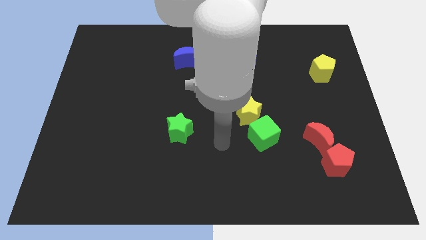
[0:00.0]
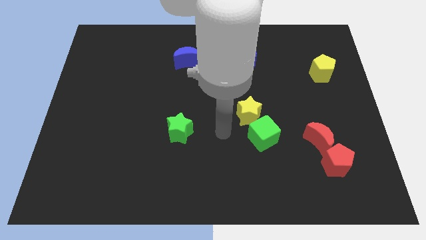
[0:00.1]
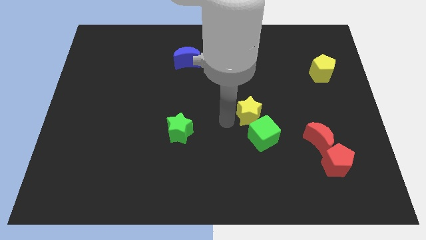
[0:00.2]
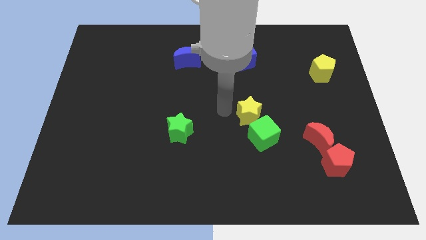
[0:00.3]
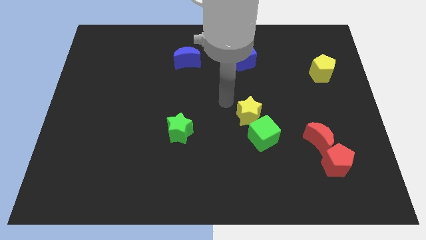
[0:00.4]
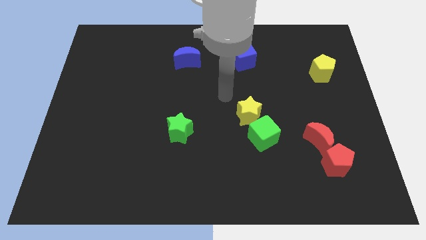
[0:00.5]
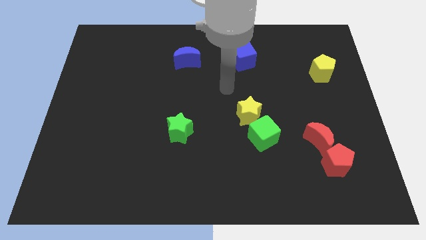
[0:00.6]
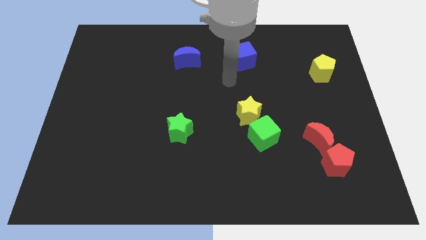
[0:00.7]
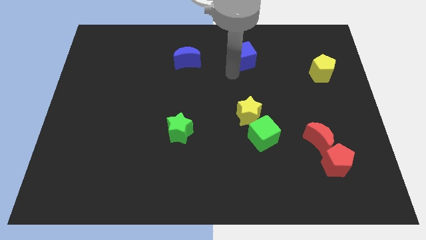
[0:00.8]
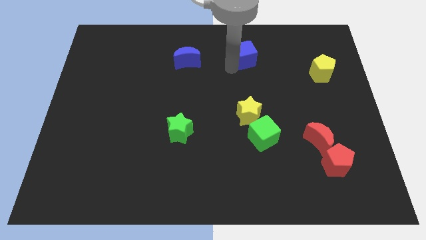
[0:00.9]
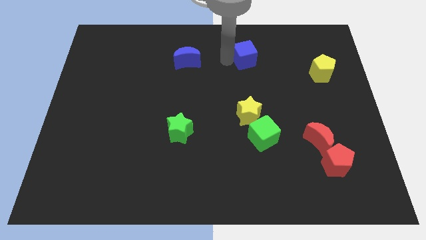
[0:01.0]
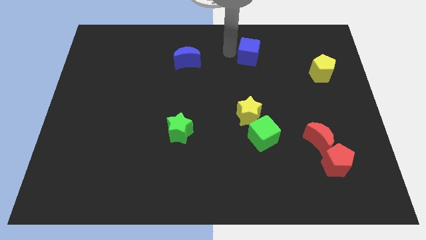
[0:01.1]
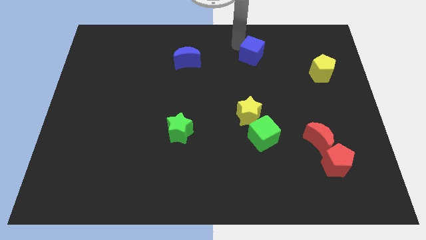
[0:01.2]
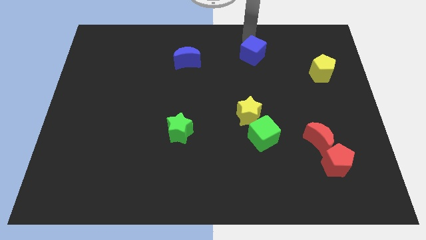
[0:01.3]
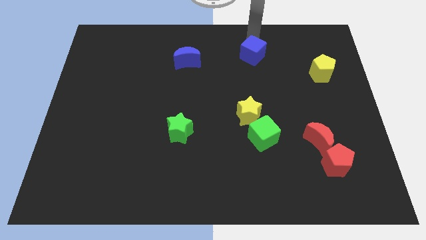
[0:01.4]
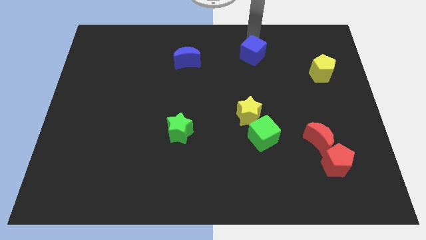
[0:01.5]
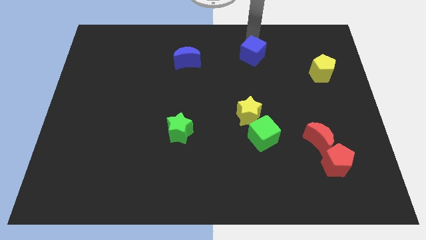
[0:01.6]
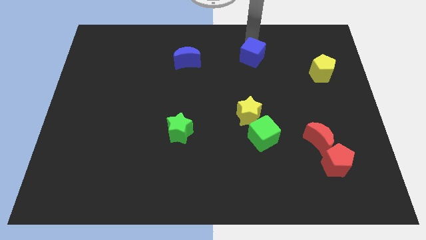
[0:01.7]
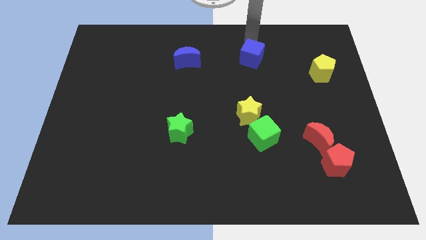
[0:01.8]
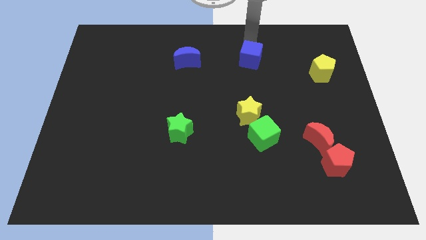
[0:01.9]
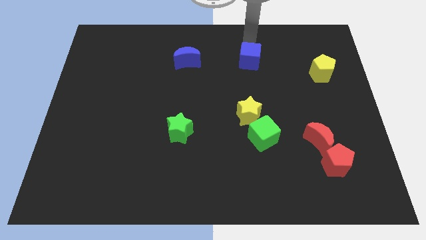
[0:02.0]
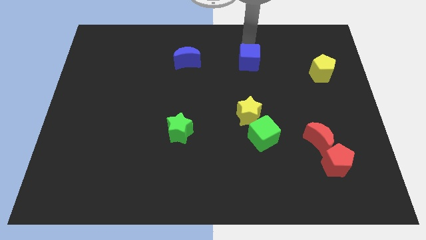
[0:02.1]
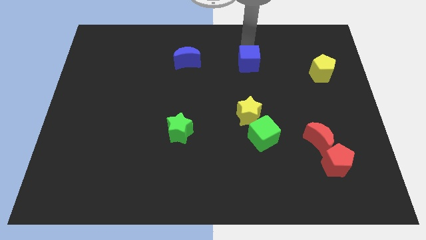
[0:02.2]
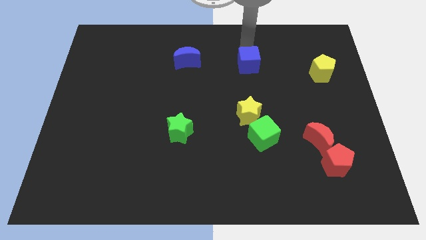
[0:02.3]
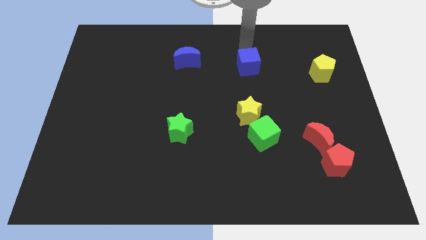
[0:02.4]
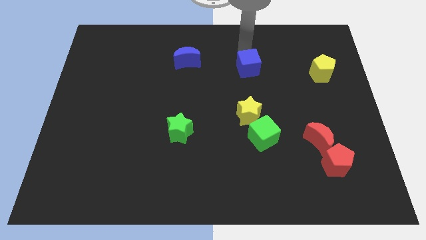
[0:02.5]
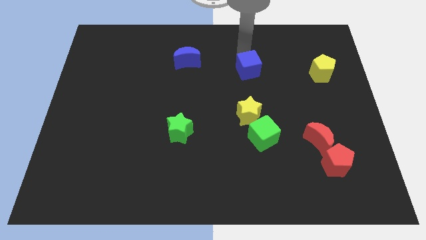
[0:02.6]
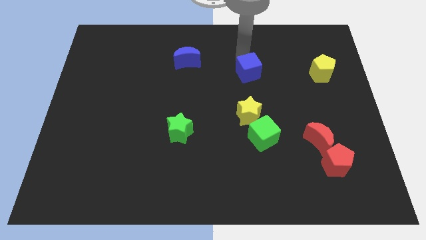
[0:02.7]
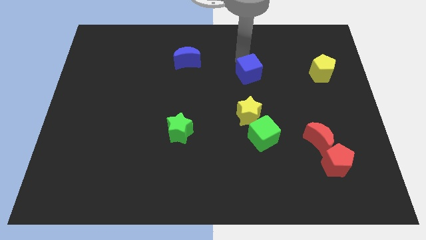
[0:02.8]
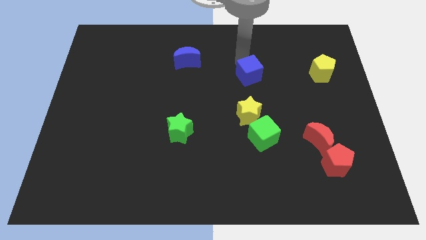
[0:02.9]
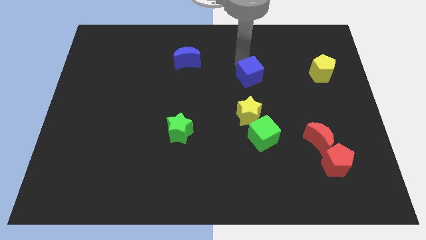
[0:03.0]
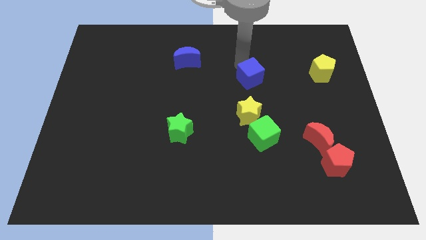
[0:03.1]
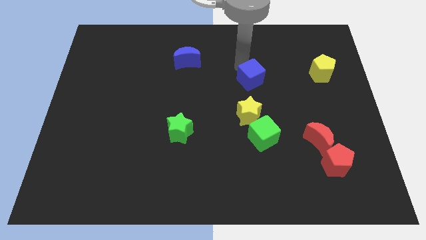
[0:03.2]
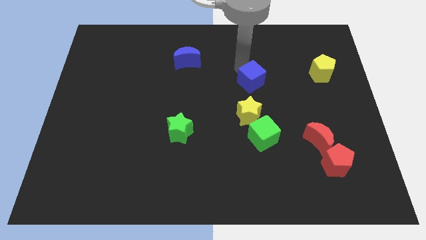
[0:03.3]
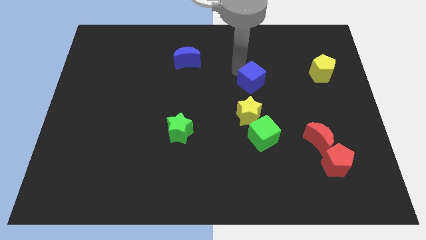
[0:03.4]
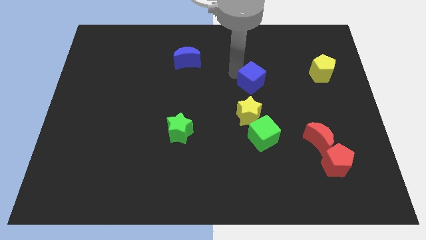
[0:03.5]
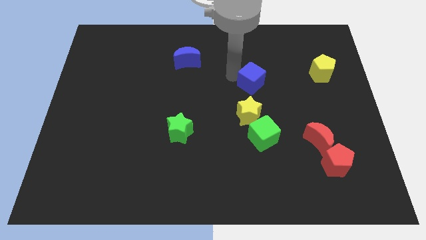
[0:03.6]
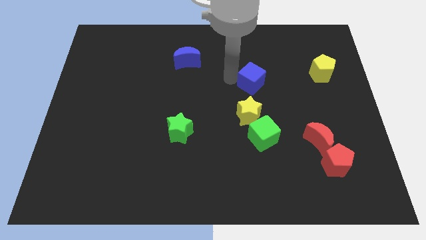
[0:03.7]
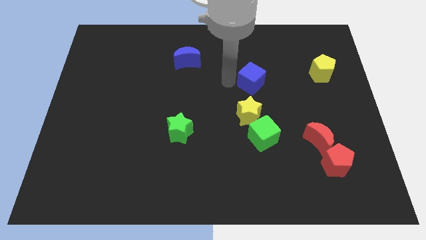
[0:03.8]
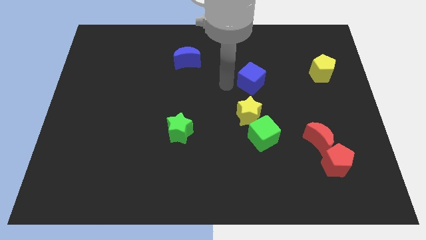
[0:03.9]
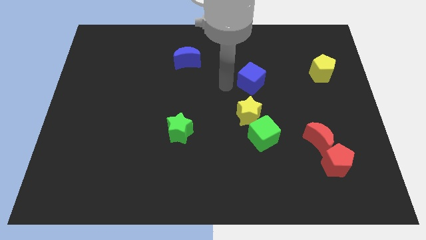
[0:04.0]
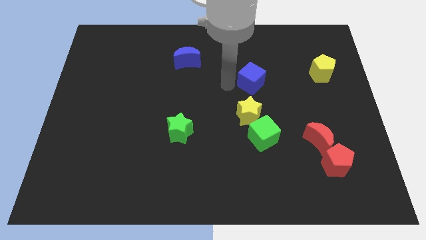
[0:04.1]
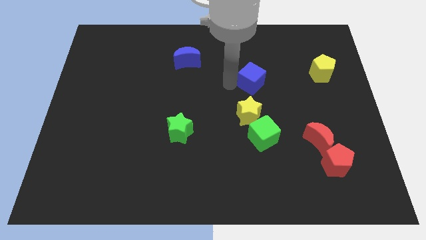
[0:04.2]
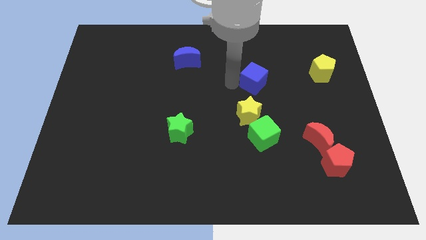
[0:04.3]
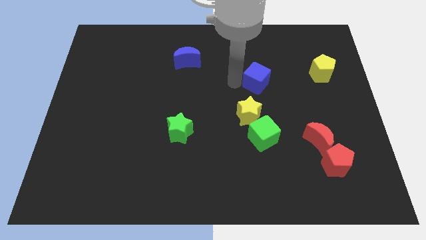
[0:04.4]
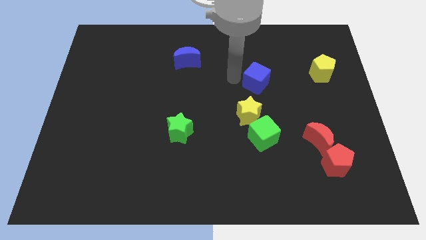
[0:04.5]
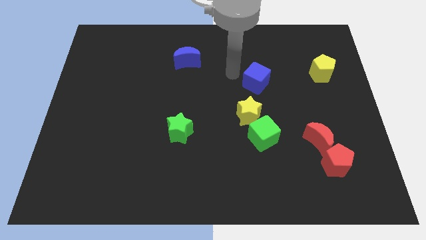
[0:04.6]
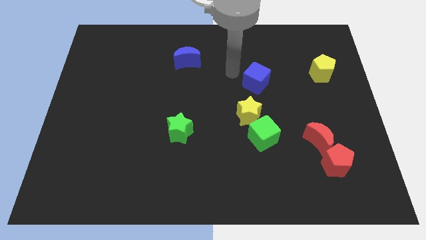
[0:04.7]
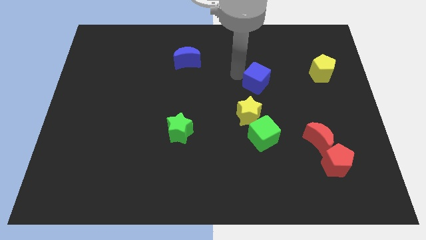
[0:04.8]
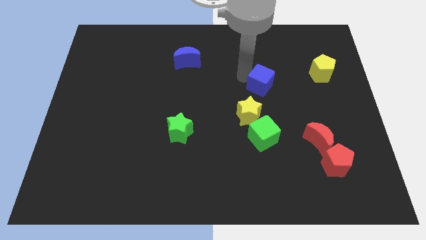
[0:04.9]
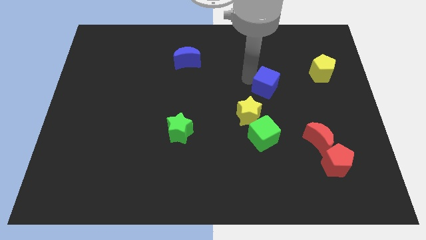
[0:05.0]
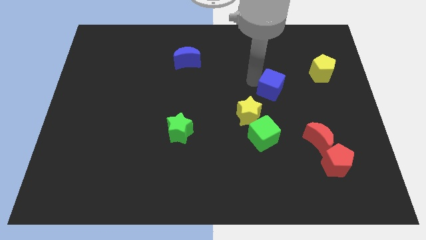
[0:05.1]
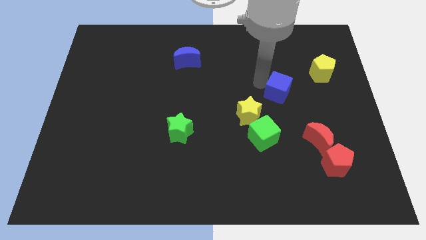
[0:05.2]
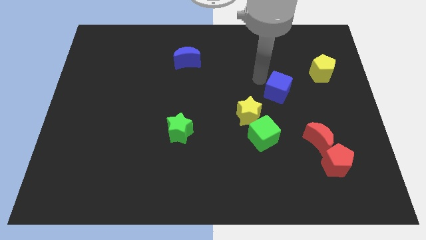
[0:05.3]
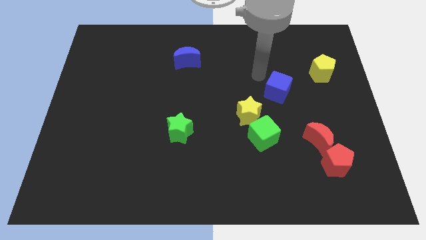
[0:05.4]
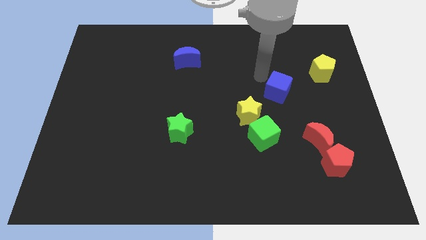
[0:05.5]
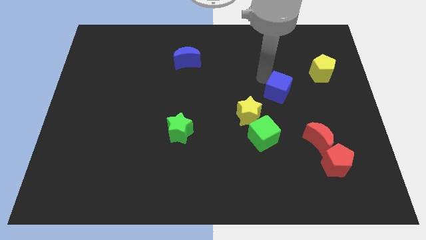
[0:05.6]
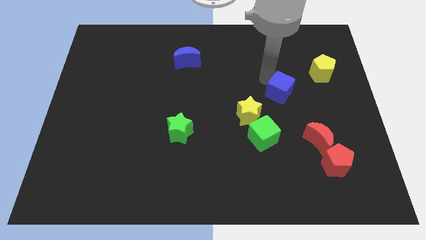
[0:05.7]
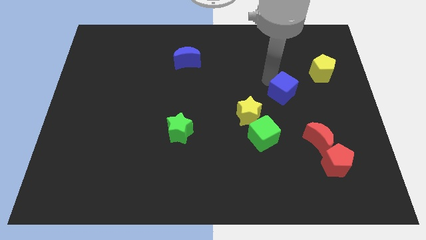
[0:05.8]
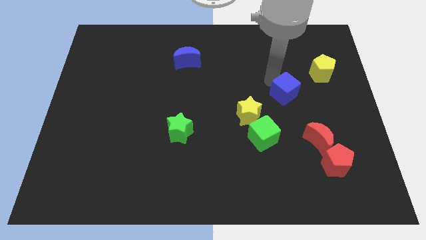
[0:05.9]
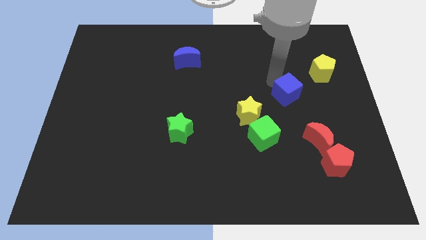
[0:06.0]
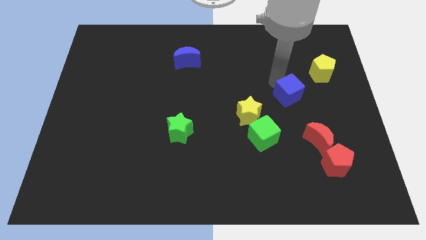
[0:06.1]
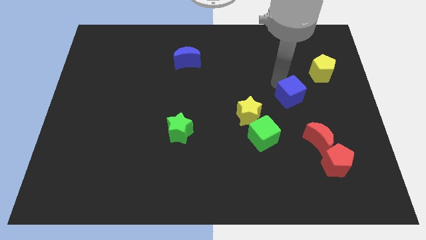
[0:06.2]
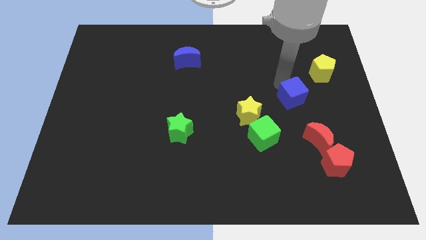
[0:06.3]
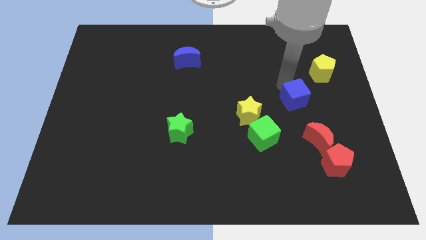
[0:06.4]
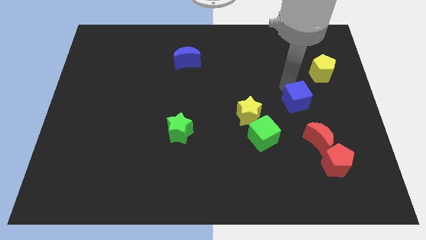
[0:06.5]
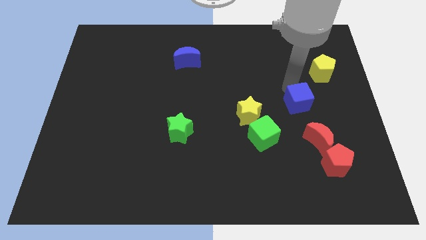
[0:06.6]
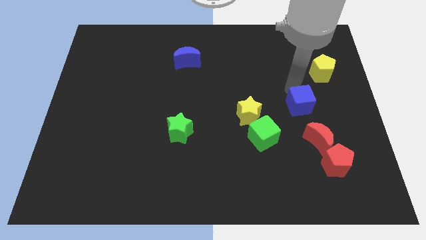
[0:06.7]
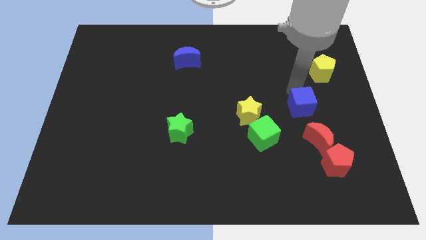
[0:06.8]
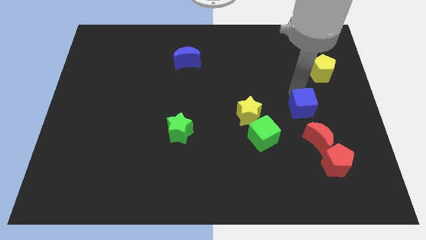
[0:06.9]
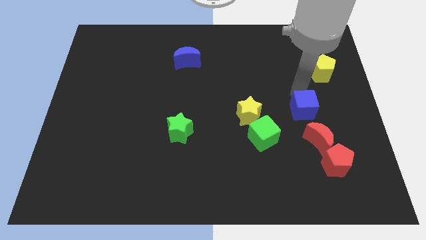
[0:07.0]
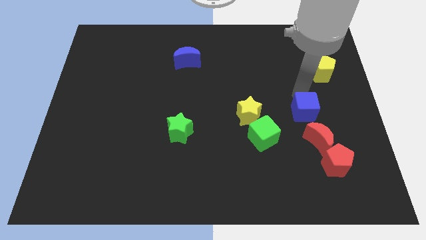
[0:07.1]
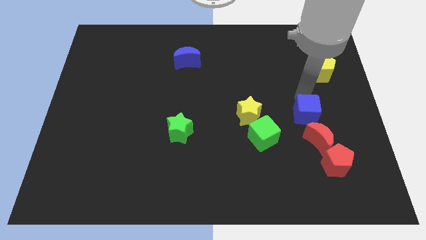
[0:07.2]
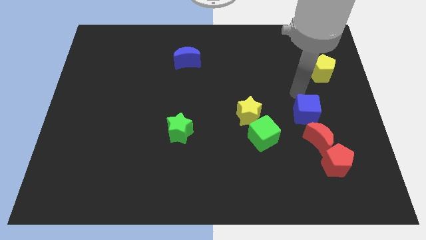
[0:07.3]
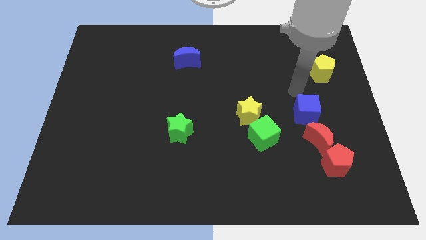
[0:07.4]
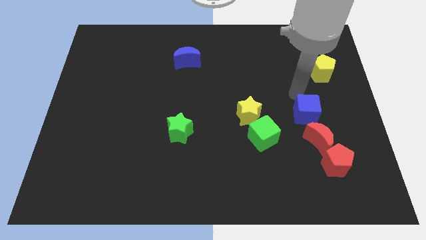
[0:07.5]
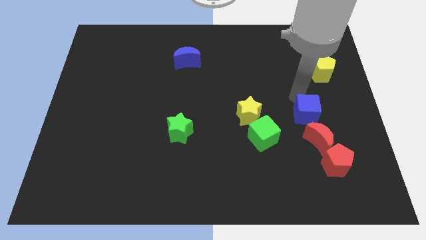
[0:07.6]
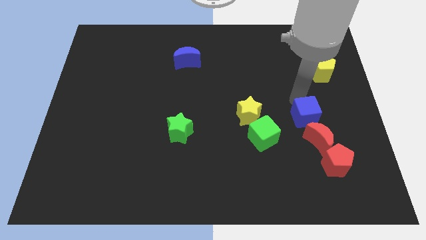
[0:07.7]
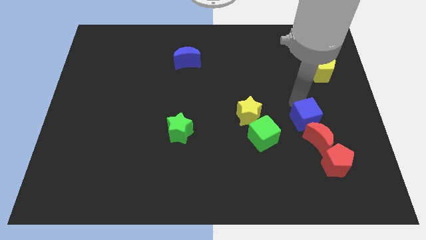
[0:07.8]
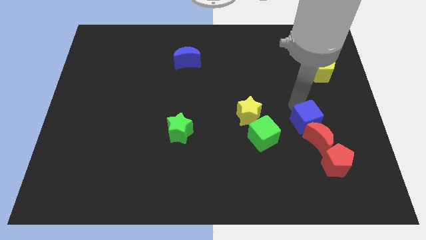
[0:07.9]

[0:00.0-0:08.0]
move the blue cube to the red moon
